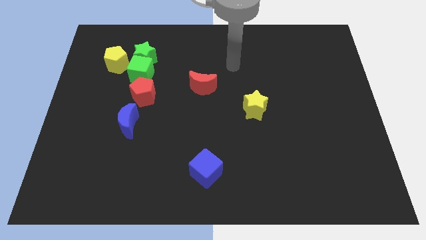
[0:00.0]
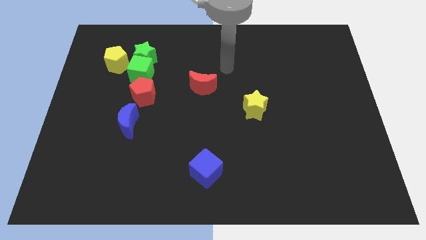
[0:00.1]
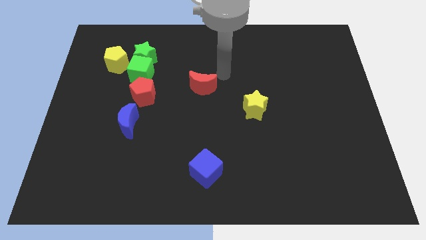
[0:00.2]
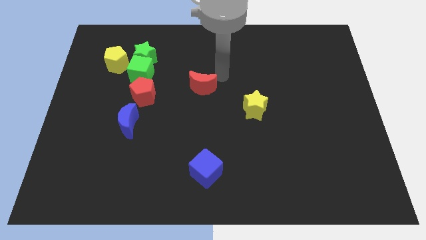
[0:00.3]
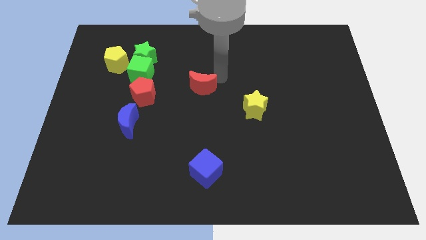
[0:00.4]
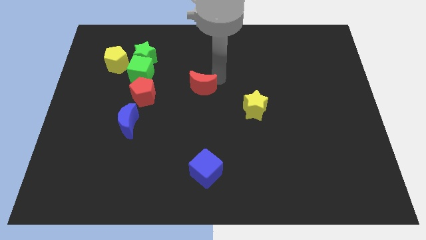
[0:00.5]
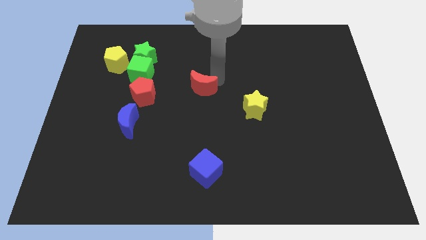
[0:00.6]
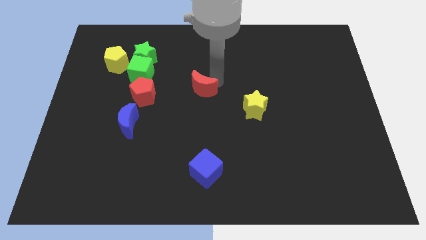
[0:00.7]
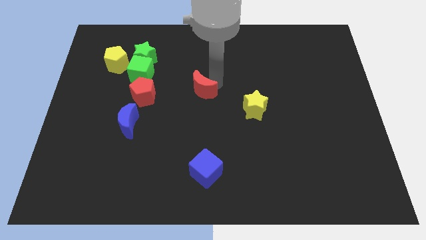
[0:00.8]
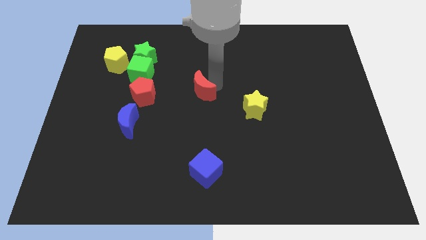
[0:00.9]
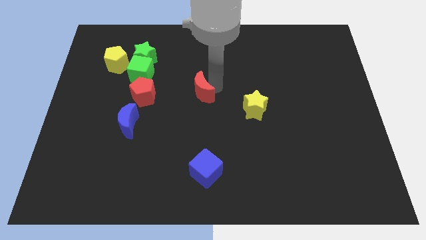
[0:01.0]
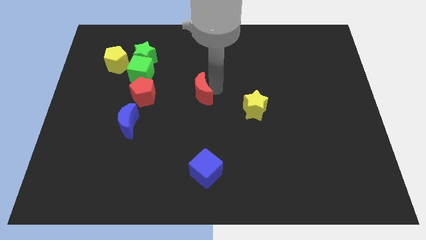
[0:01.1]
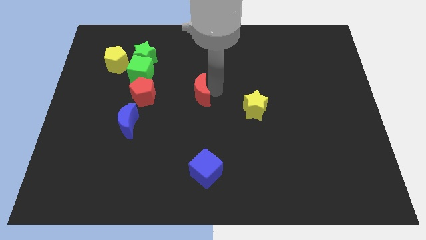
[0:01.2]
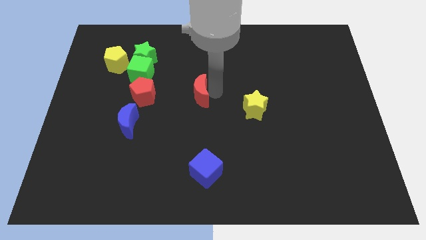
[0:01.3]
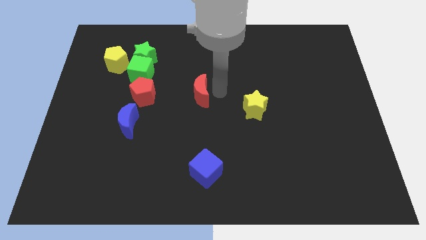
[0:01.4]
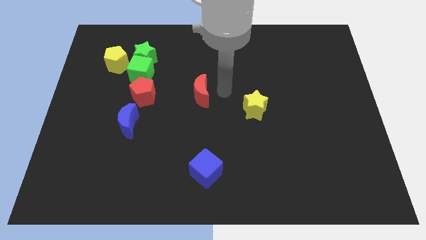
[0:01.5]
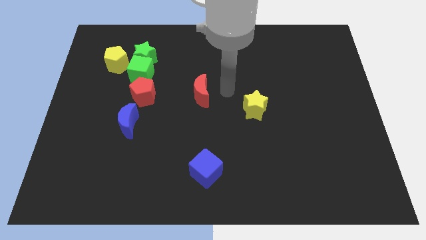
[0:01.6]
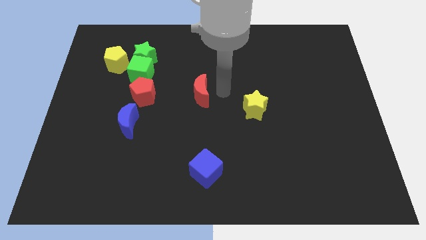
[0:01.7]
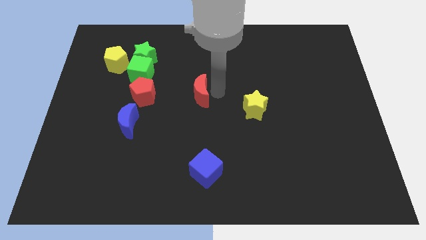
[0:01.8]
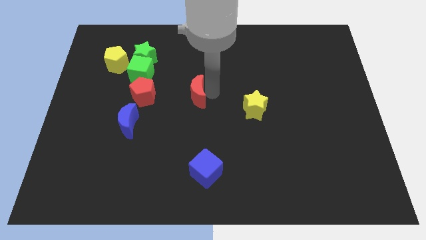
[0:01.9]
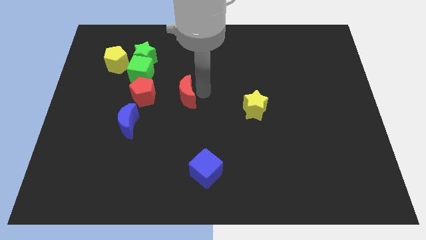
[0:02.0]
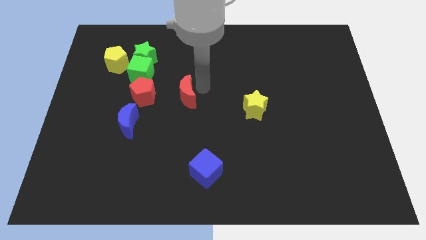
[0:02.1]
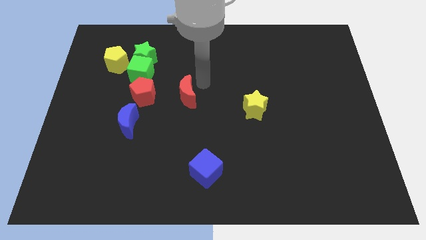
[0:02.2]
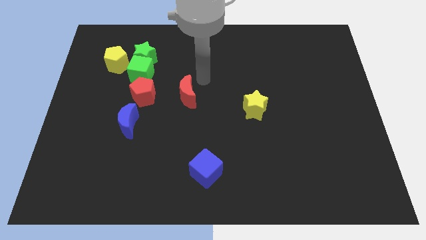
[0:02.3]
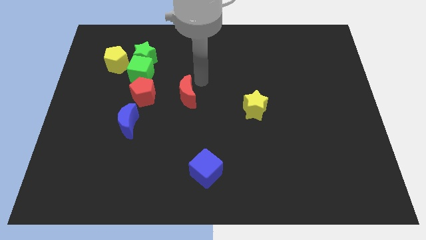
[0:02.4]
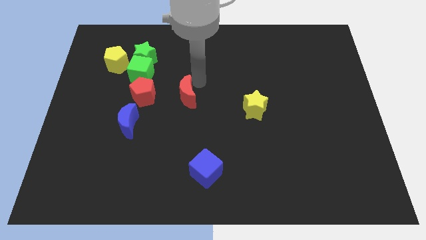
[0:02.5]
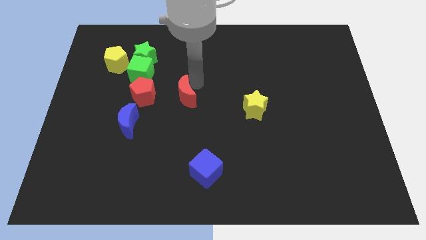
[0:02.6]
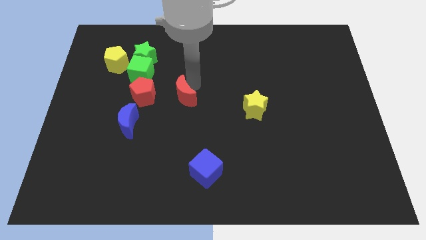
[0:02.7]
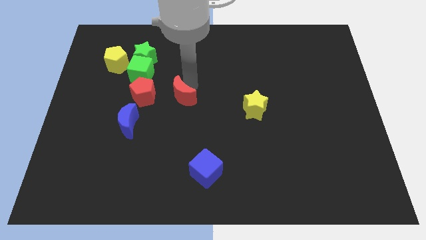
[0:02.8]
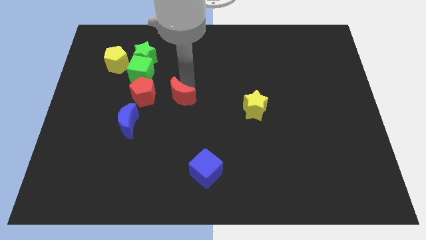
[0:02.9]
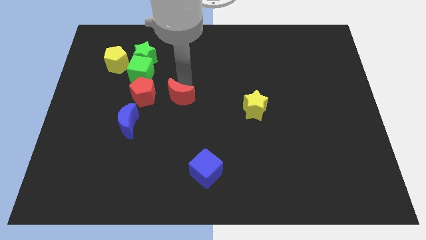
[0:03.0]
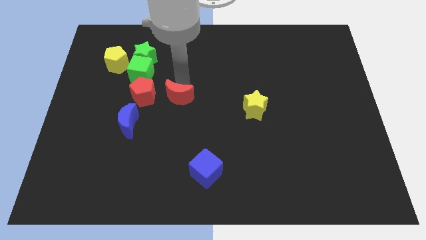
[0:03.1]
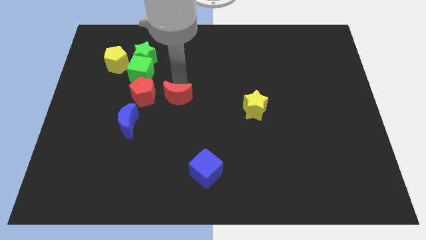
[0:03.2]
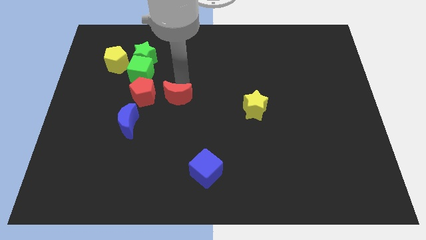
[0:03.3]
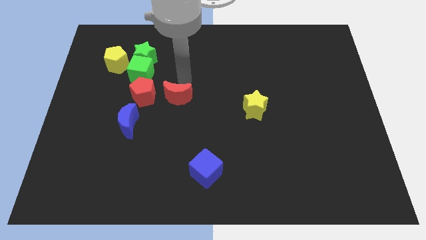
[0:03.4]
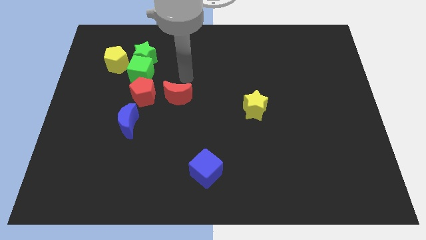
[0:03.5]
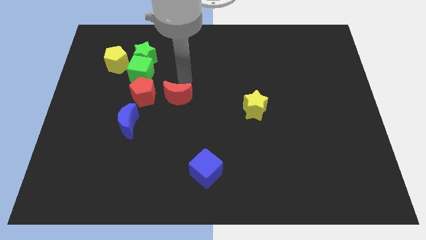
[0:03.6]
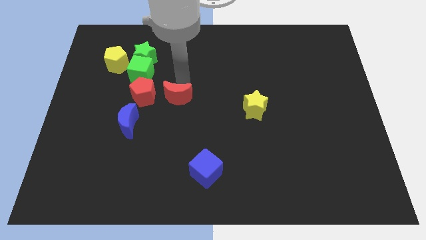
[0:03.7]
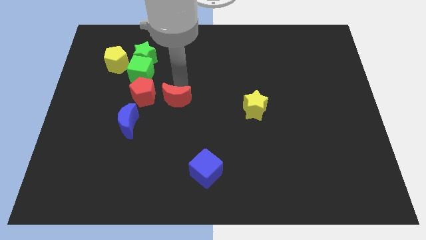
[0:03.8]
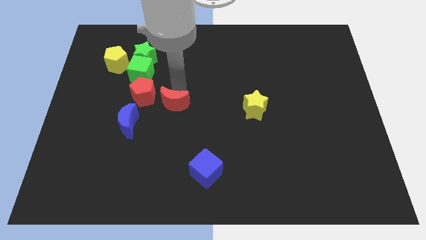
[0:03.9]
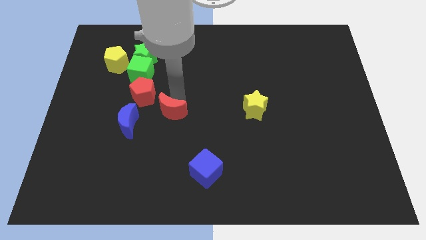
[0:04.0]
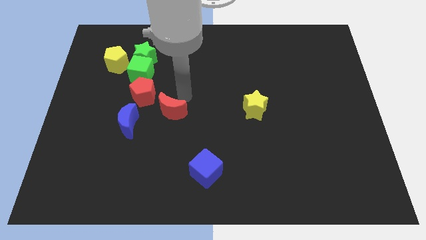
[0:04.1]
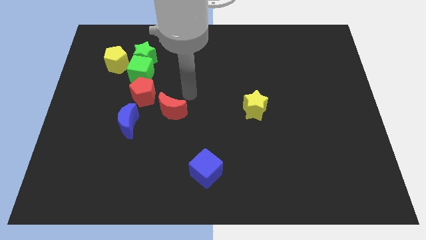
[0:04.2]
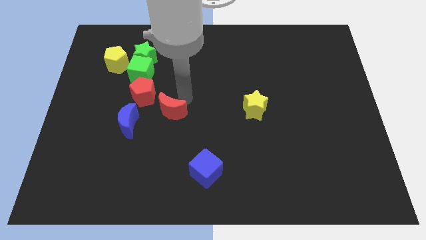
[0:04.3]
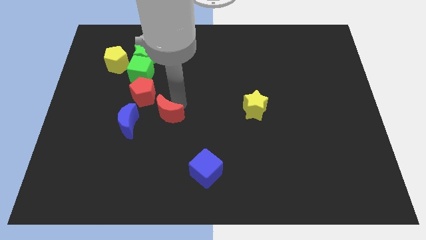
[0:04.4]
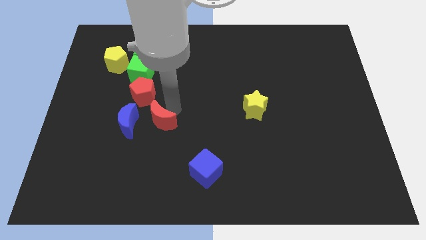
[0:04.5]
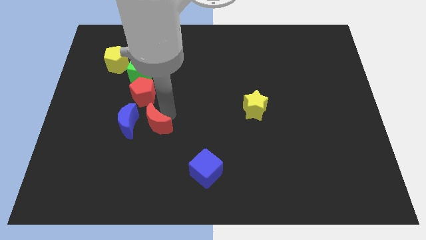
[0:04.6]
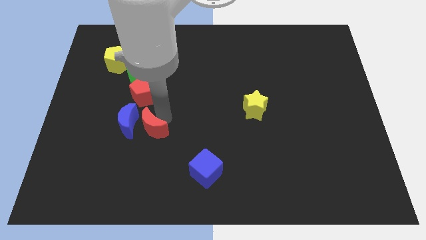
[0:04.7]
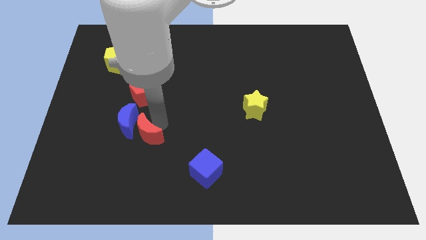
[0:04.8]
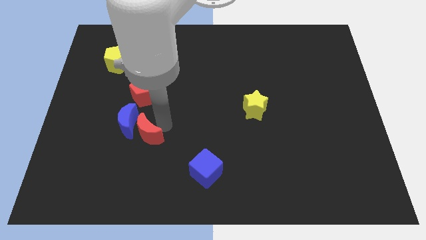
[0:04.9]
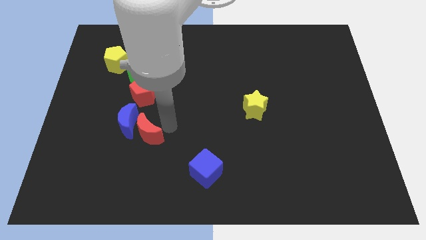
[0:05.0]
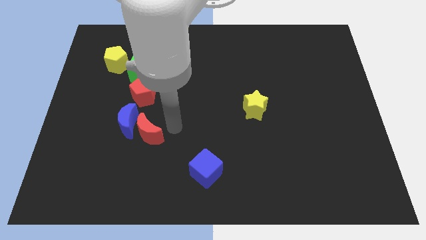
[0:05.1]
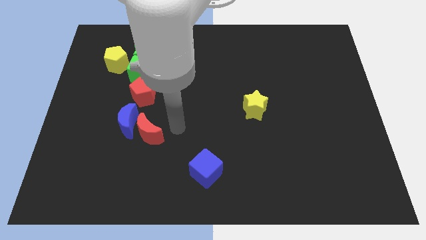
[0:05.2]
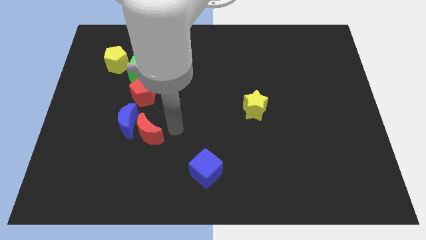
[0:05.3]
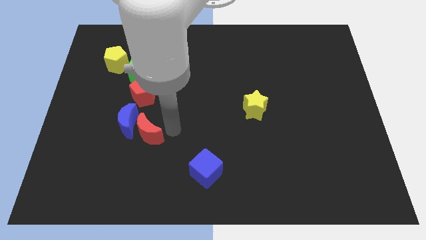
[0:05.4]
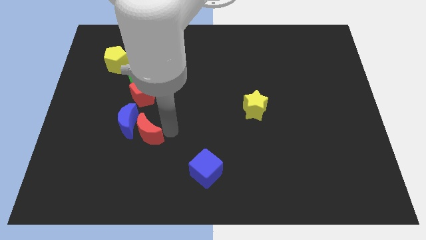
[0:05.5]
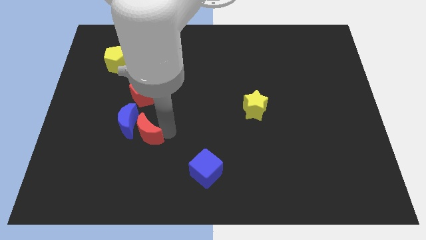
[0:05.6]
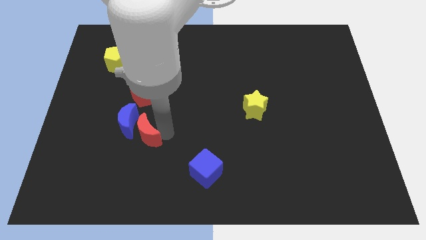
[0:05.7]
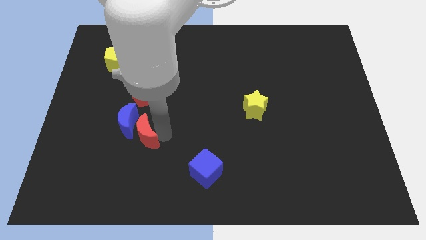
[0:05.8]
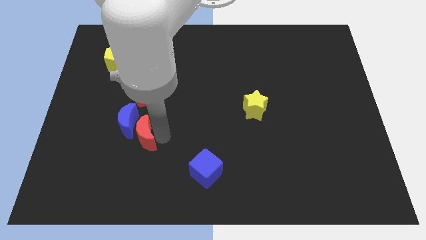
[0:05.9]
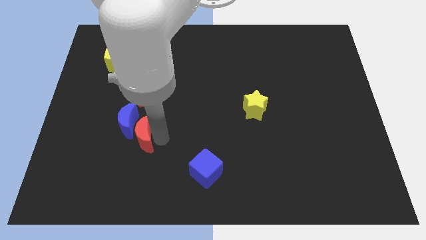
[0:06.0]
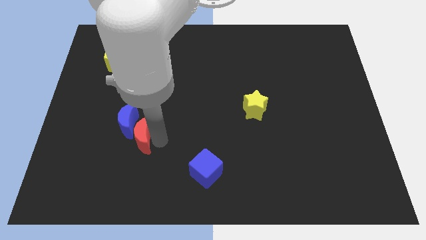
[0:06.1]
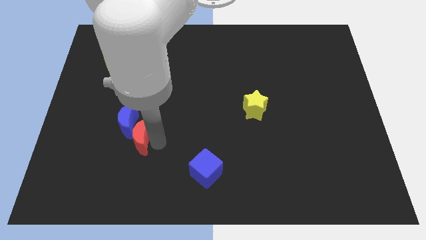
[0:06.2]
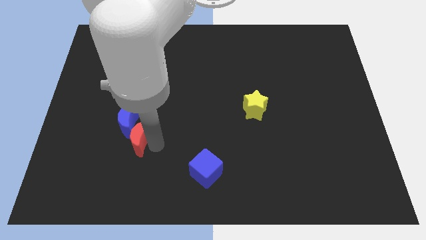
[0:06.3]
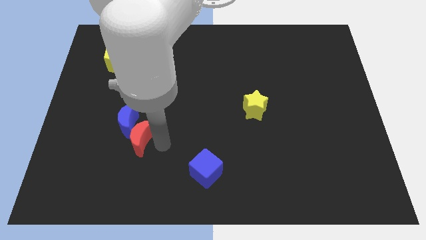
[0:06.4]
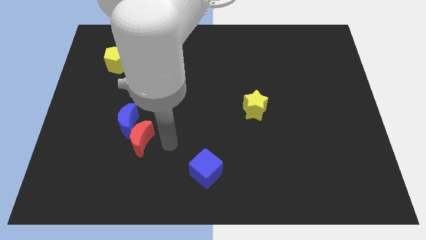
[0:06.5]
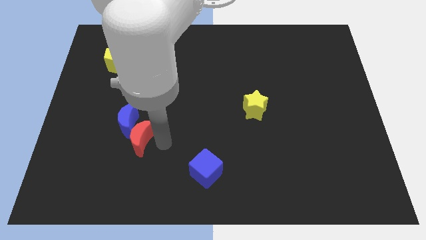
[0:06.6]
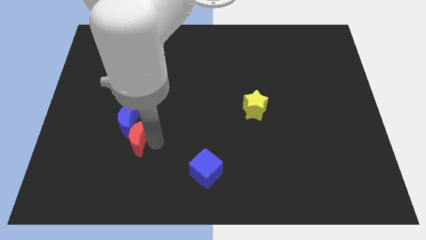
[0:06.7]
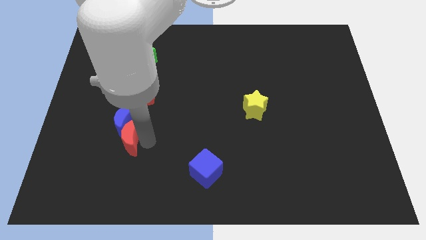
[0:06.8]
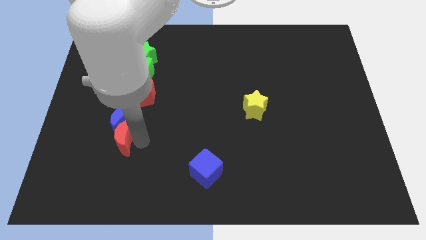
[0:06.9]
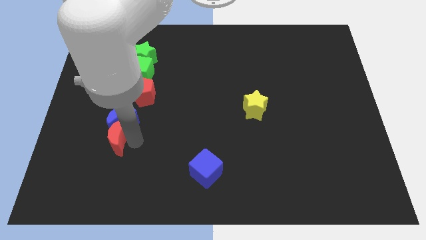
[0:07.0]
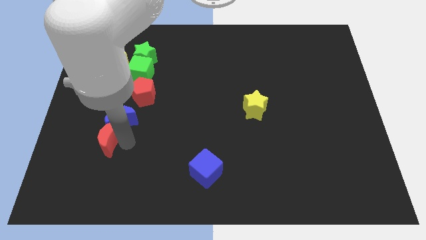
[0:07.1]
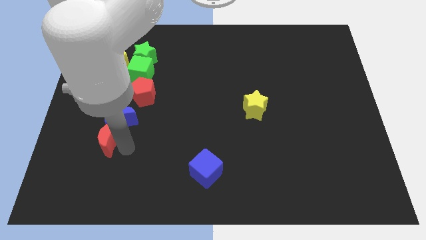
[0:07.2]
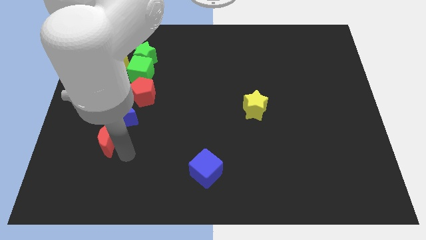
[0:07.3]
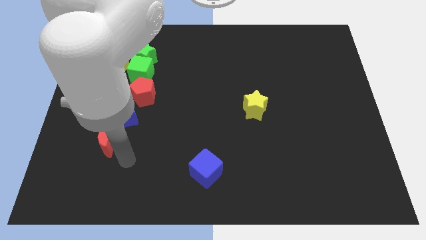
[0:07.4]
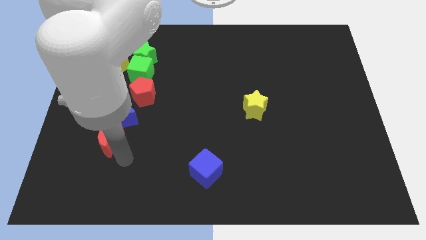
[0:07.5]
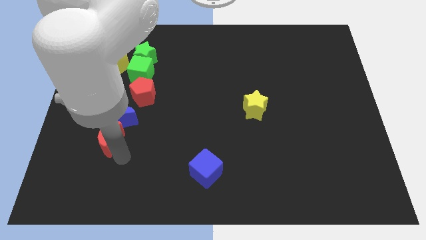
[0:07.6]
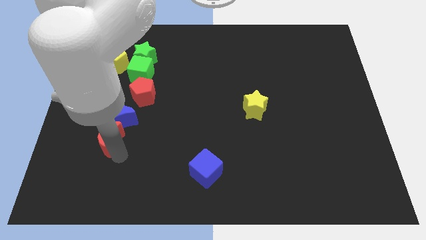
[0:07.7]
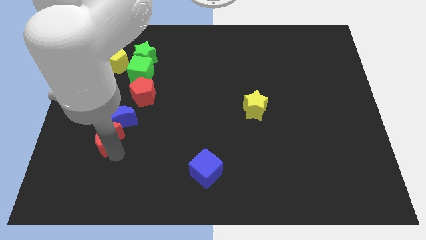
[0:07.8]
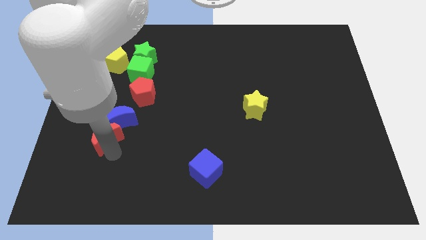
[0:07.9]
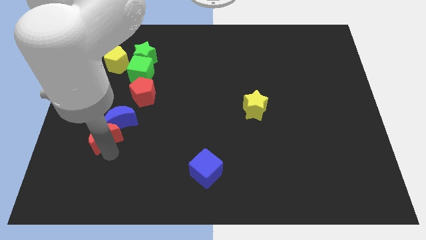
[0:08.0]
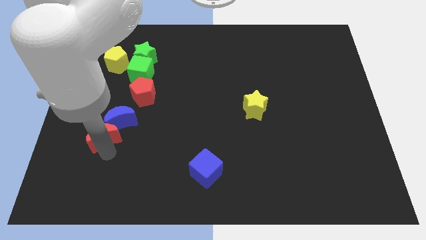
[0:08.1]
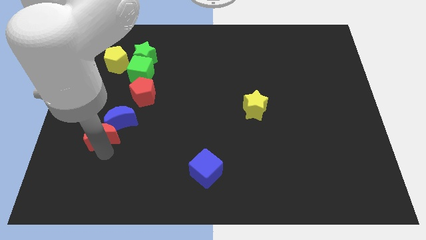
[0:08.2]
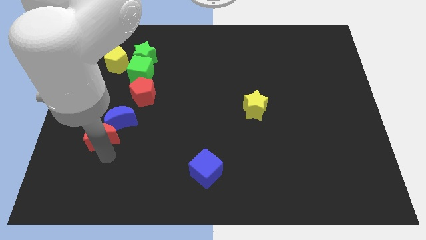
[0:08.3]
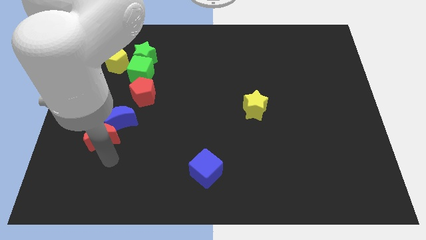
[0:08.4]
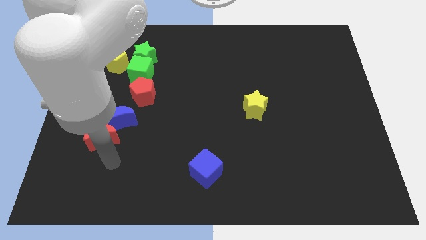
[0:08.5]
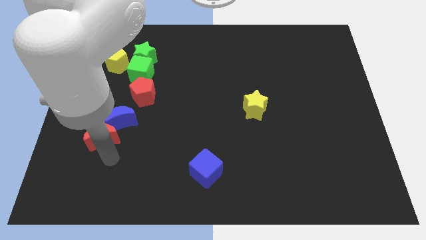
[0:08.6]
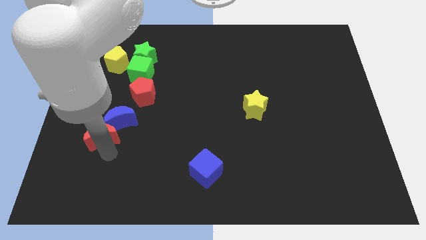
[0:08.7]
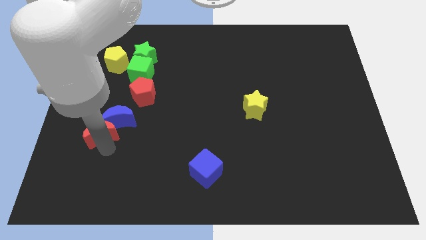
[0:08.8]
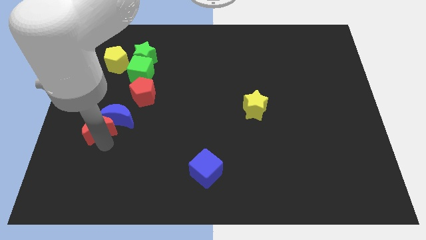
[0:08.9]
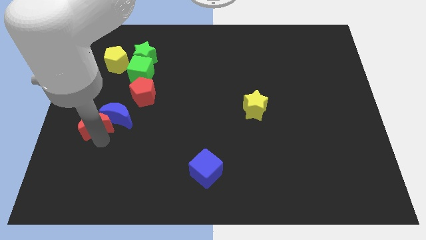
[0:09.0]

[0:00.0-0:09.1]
move the red moon to the left slightly
